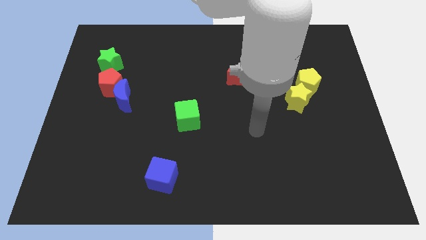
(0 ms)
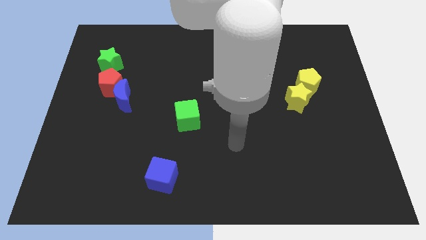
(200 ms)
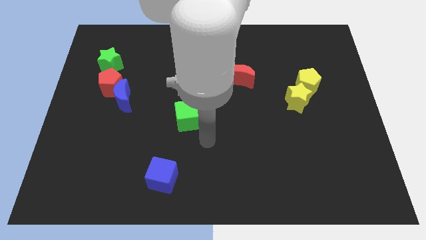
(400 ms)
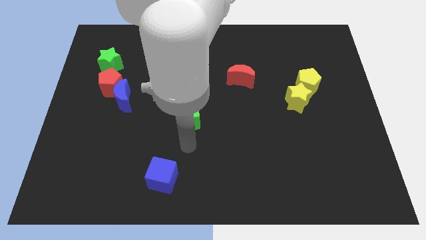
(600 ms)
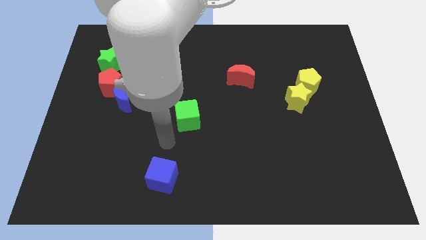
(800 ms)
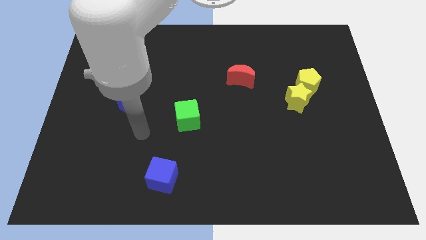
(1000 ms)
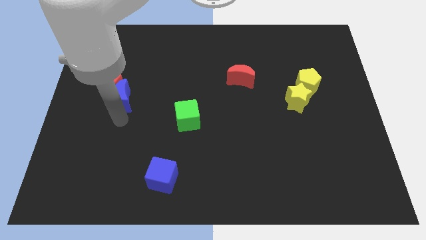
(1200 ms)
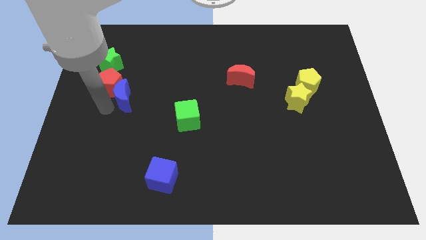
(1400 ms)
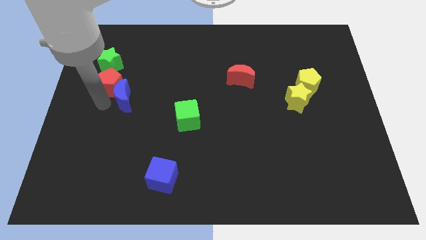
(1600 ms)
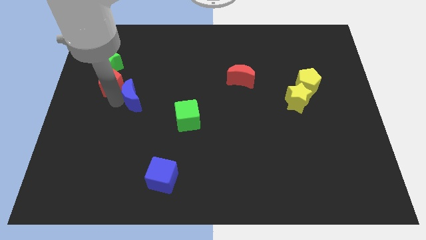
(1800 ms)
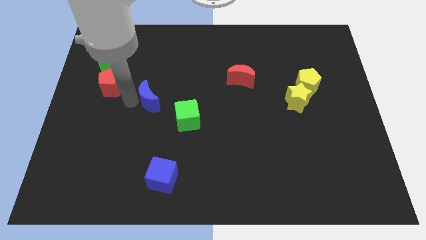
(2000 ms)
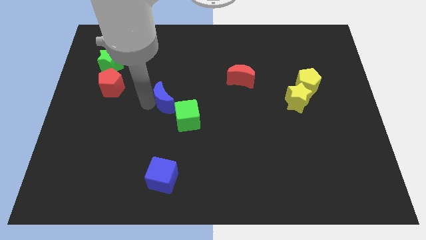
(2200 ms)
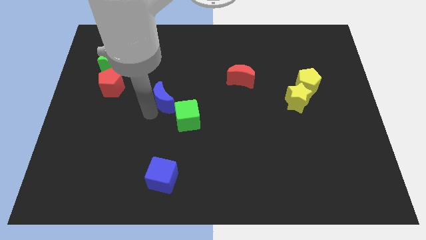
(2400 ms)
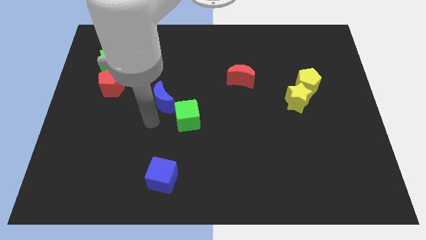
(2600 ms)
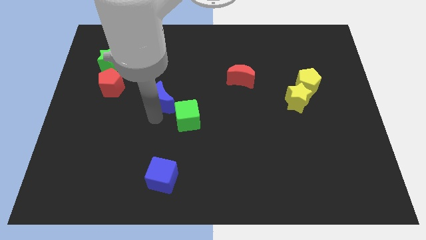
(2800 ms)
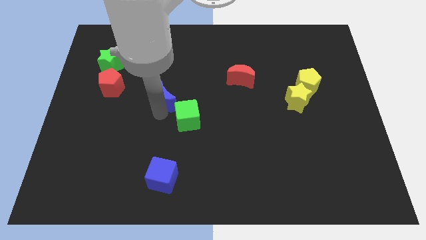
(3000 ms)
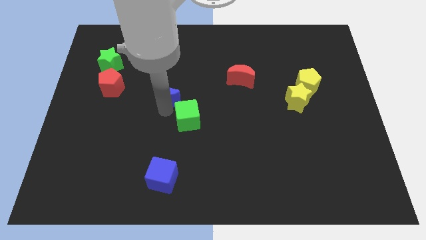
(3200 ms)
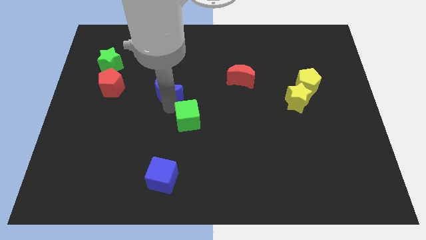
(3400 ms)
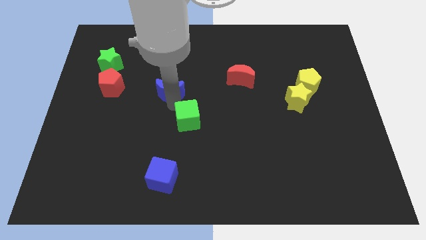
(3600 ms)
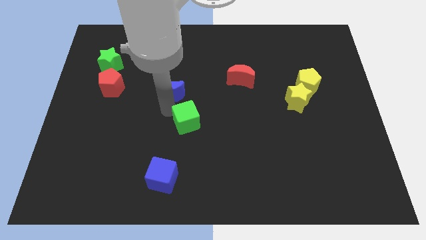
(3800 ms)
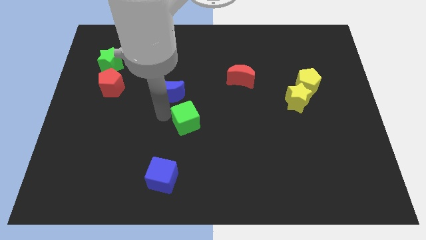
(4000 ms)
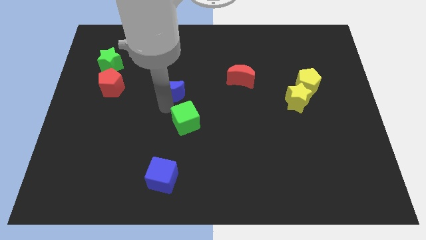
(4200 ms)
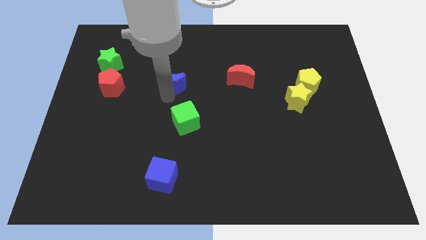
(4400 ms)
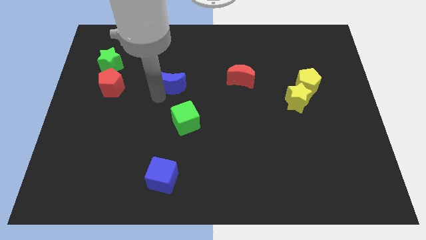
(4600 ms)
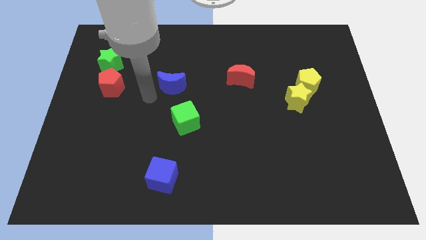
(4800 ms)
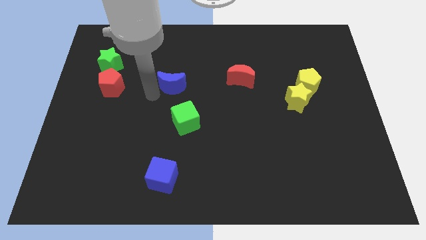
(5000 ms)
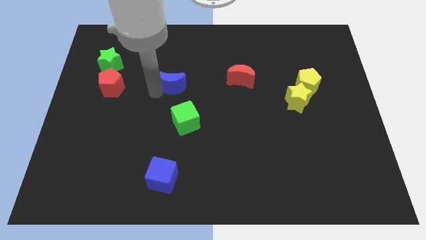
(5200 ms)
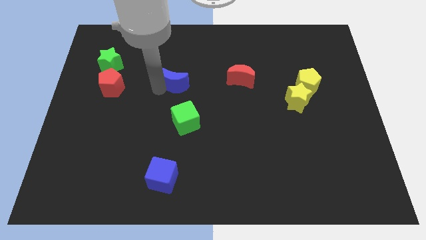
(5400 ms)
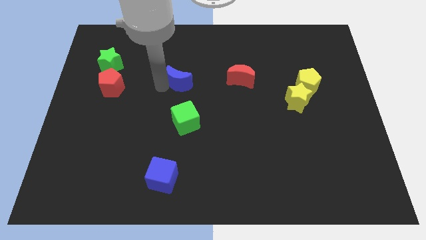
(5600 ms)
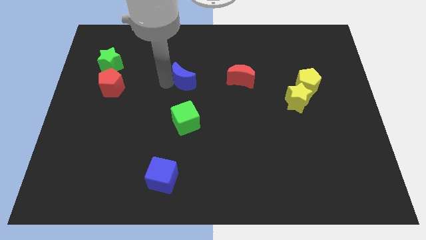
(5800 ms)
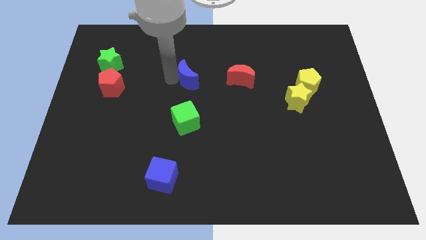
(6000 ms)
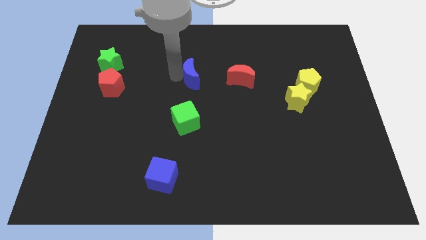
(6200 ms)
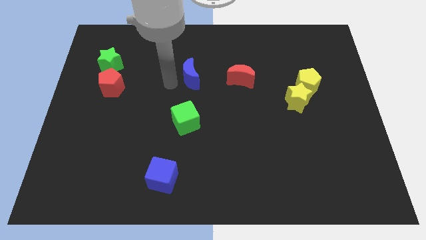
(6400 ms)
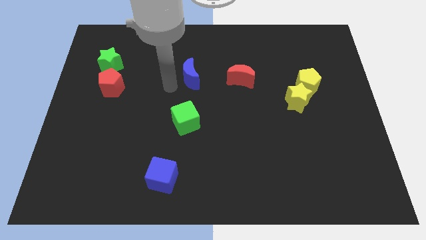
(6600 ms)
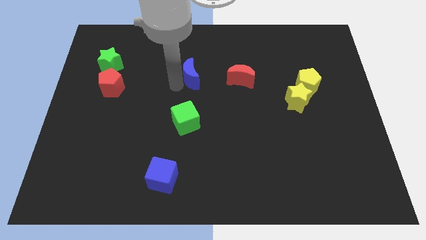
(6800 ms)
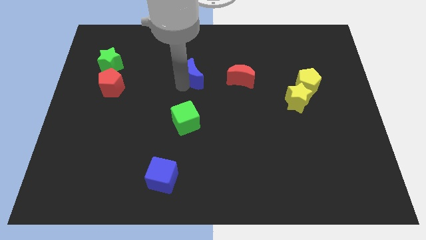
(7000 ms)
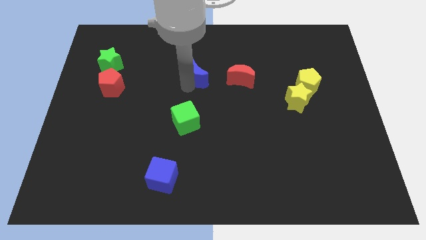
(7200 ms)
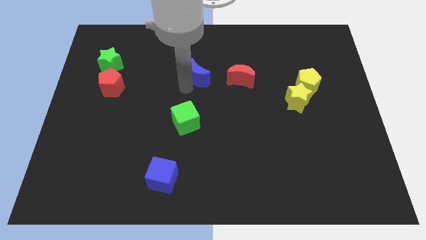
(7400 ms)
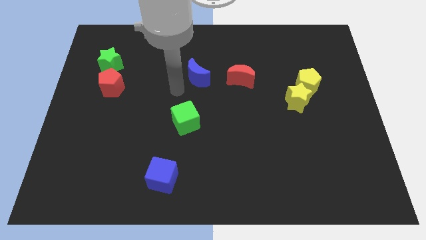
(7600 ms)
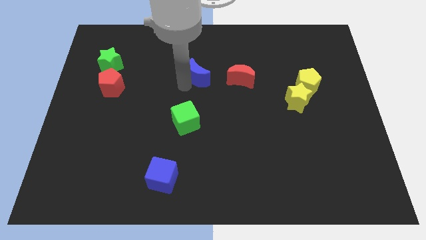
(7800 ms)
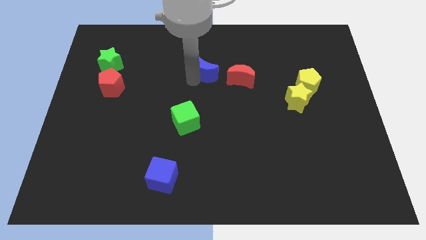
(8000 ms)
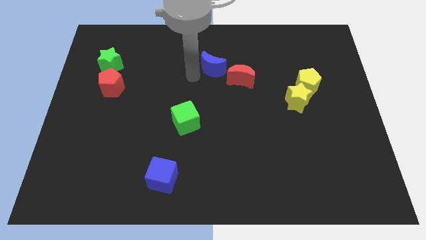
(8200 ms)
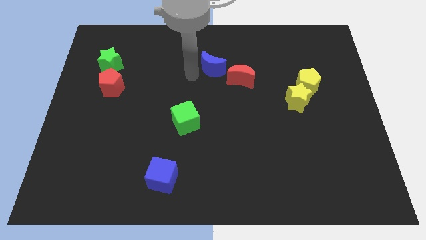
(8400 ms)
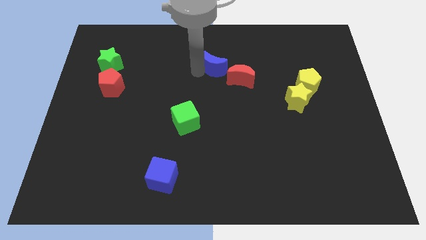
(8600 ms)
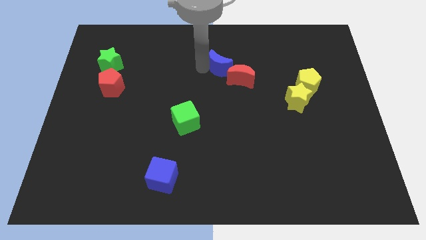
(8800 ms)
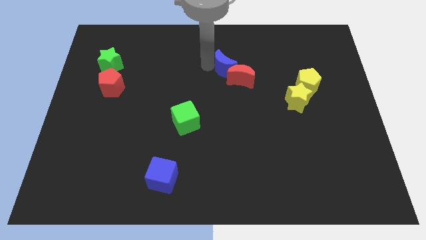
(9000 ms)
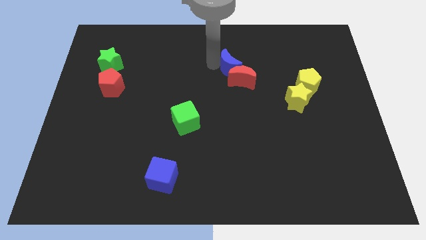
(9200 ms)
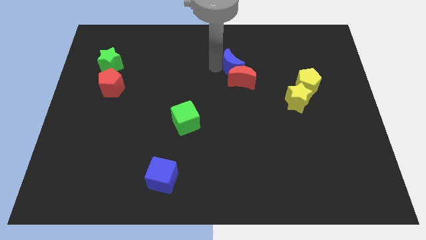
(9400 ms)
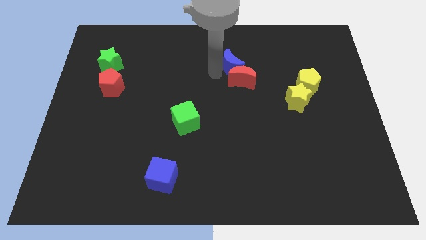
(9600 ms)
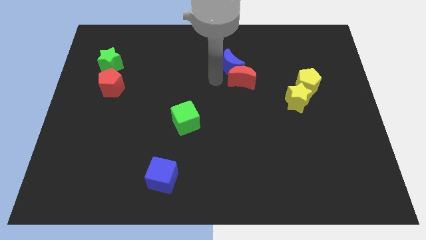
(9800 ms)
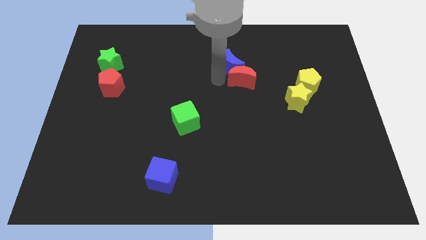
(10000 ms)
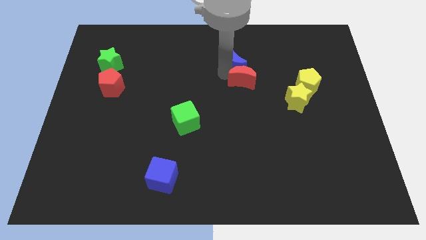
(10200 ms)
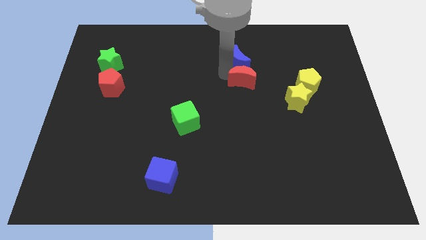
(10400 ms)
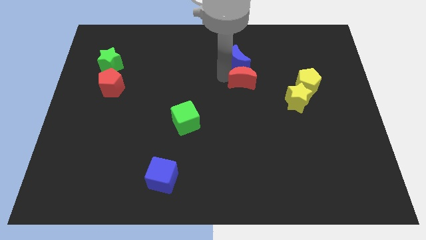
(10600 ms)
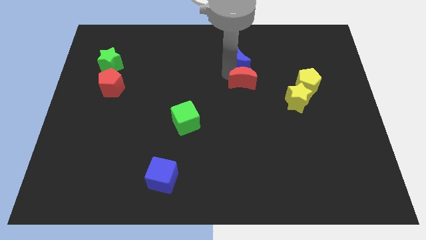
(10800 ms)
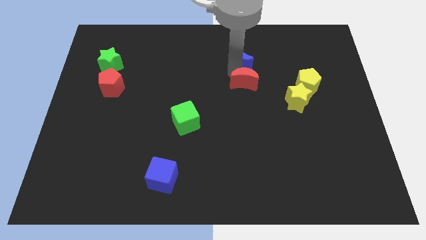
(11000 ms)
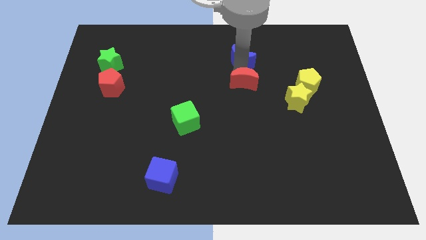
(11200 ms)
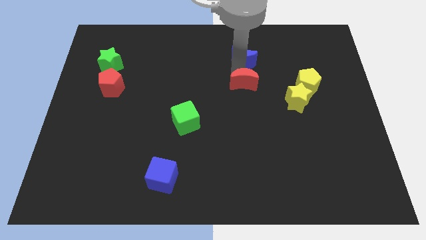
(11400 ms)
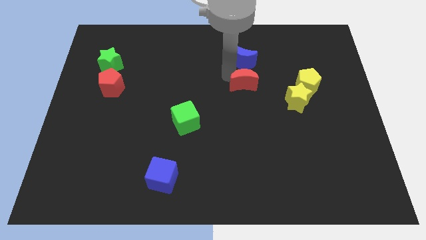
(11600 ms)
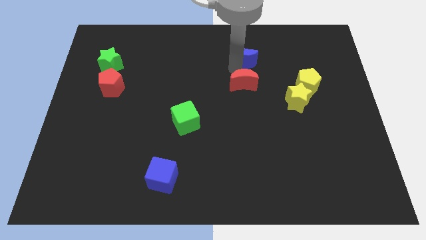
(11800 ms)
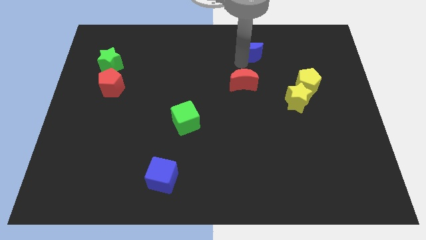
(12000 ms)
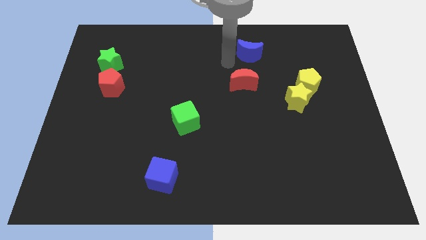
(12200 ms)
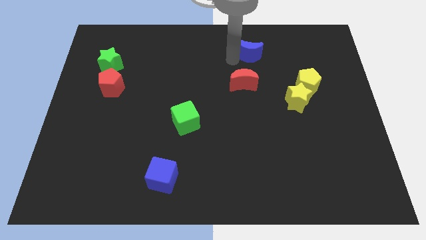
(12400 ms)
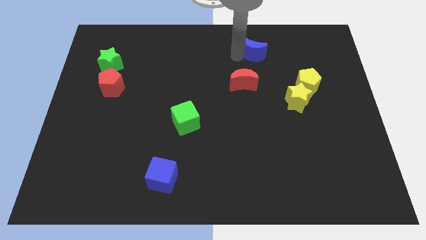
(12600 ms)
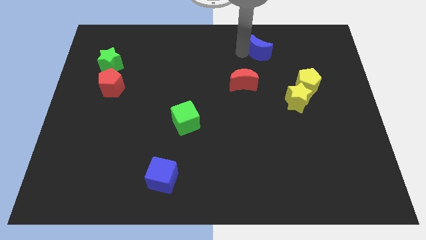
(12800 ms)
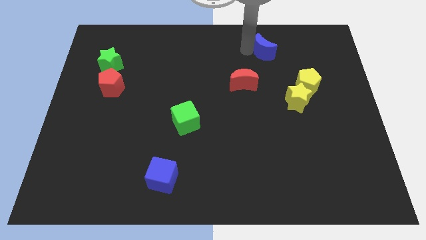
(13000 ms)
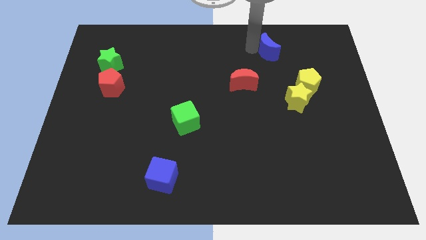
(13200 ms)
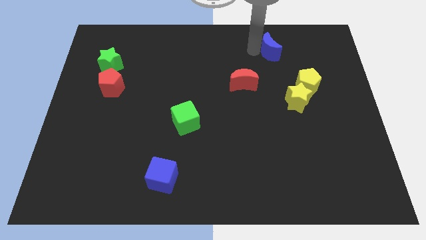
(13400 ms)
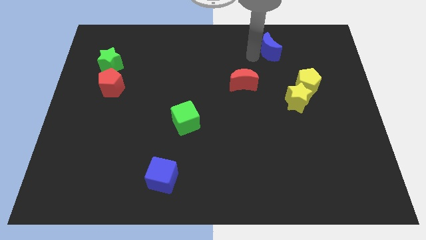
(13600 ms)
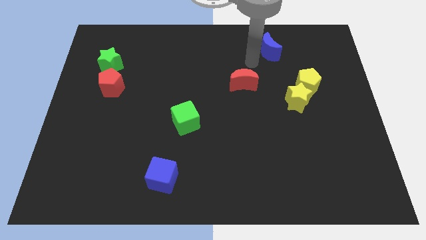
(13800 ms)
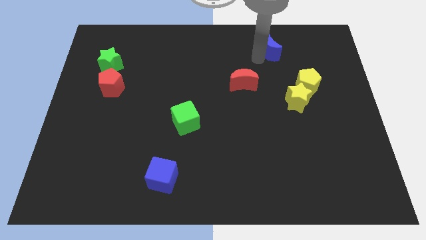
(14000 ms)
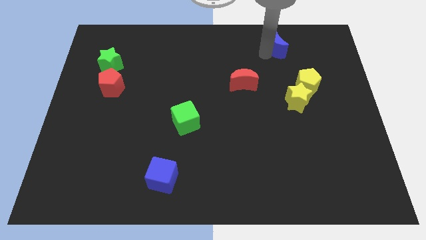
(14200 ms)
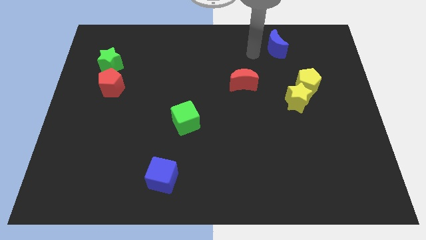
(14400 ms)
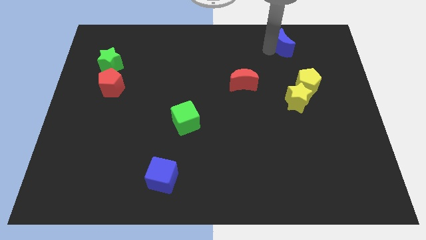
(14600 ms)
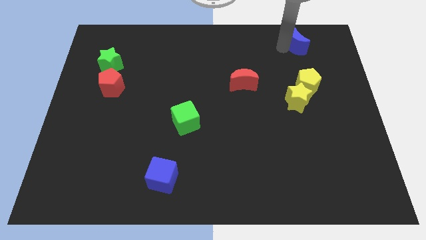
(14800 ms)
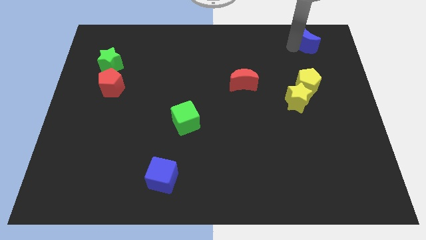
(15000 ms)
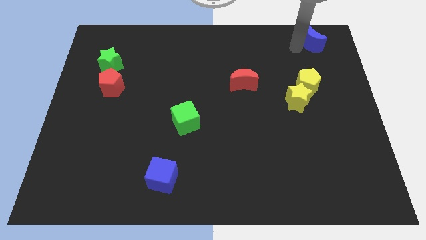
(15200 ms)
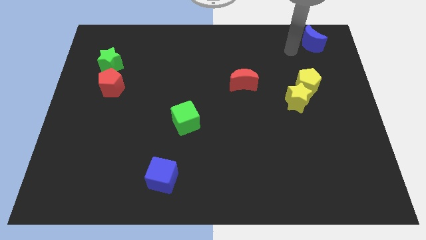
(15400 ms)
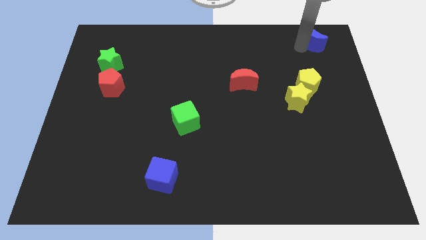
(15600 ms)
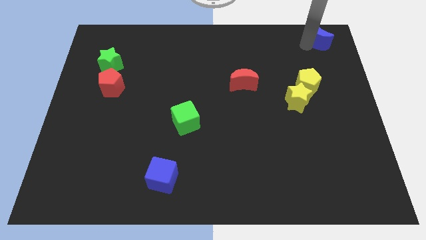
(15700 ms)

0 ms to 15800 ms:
slide the blue moon to the top right
